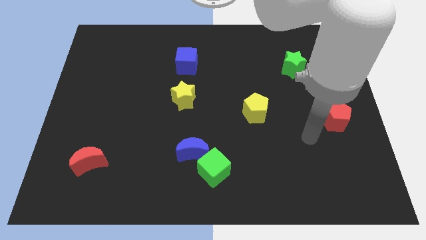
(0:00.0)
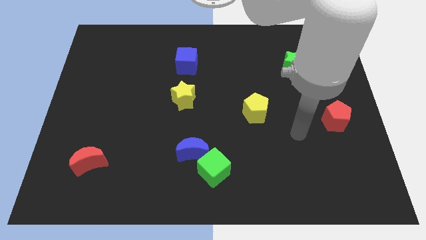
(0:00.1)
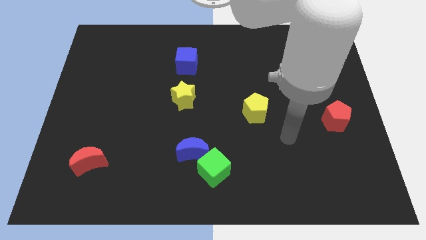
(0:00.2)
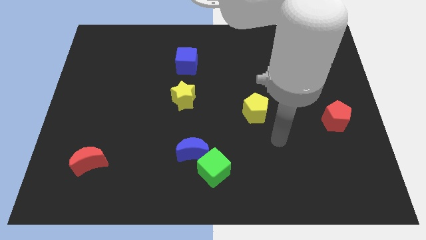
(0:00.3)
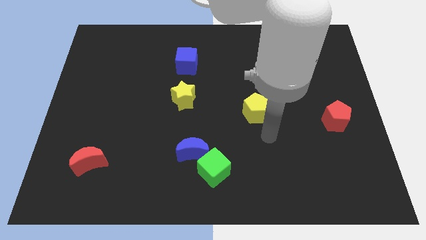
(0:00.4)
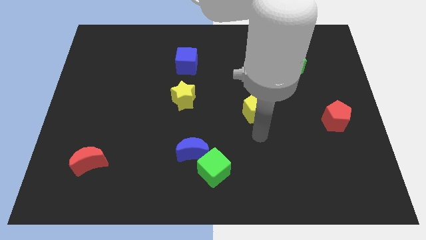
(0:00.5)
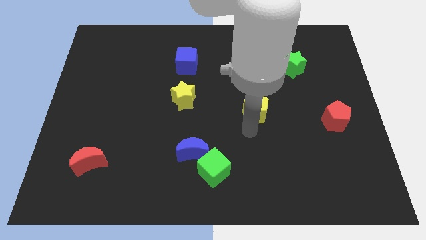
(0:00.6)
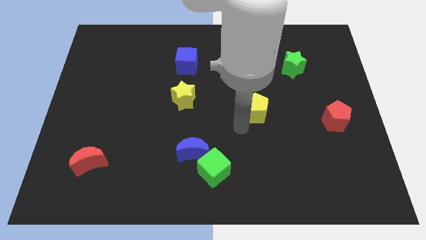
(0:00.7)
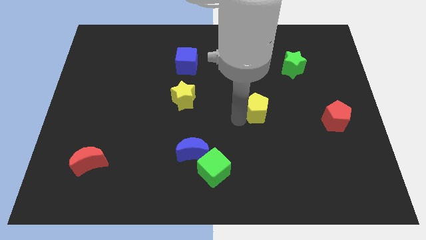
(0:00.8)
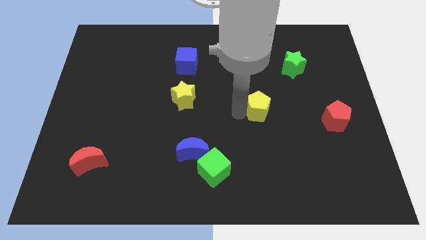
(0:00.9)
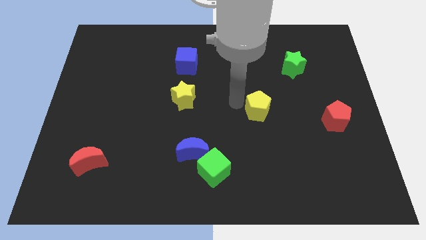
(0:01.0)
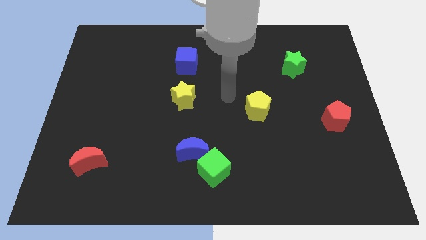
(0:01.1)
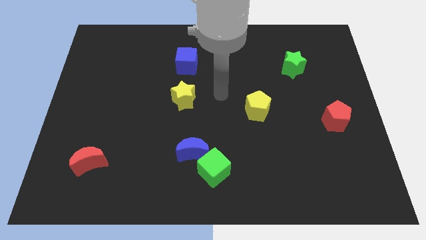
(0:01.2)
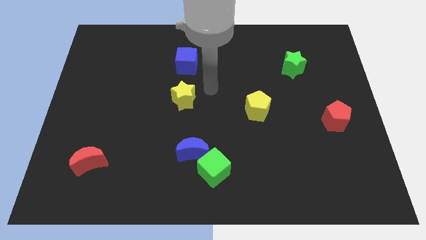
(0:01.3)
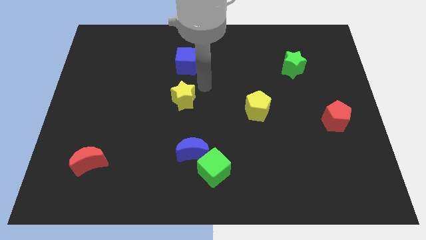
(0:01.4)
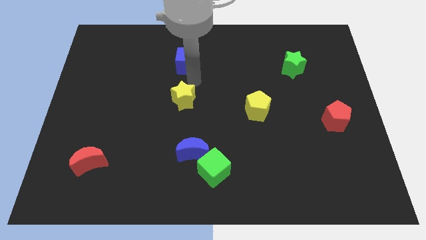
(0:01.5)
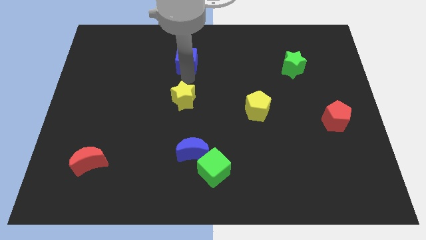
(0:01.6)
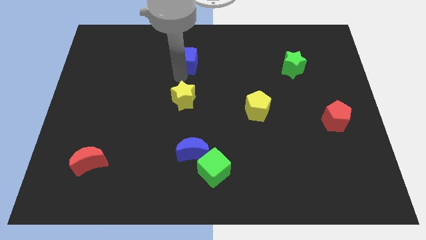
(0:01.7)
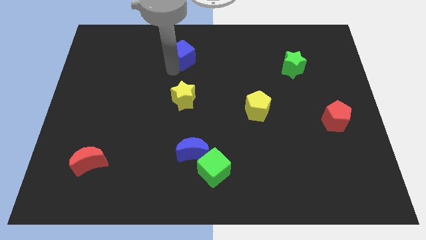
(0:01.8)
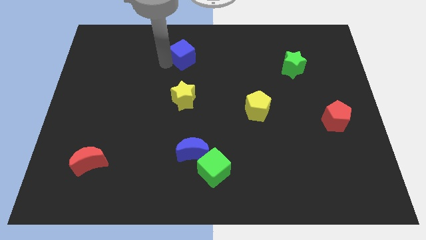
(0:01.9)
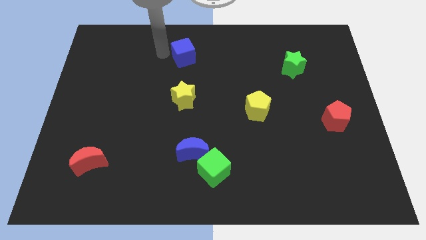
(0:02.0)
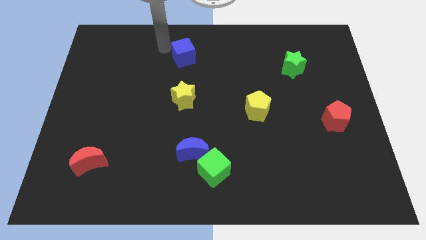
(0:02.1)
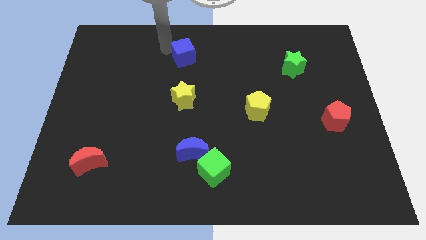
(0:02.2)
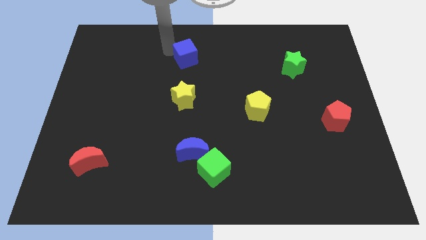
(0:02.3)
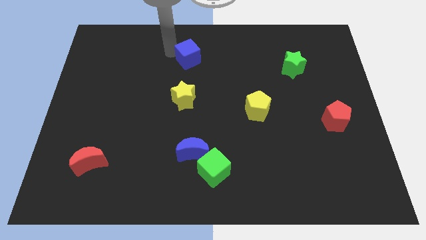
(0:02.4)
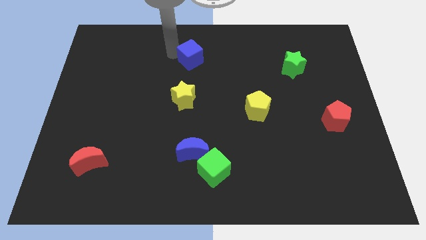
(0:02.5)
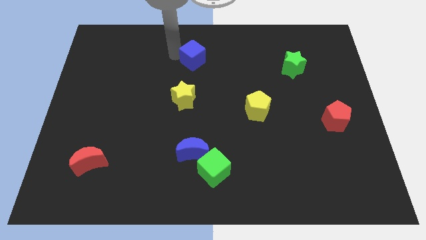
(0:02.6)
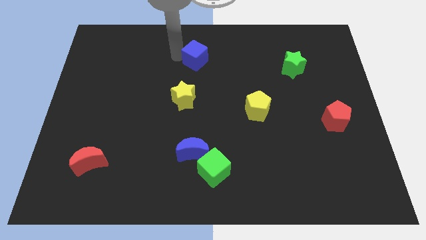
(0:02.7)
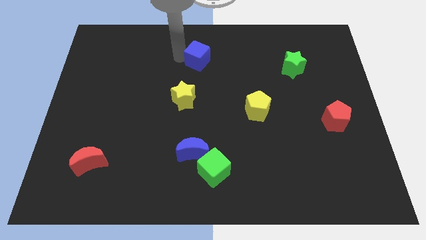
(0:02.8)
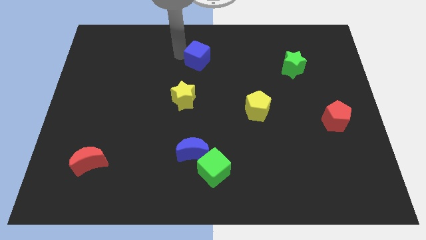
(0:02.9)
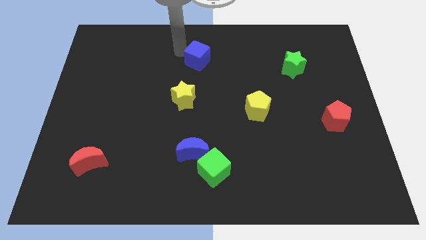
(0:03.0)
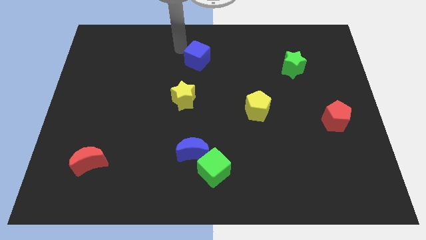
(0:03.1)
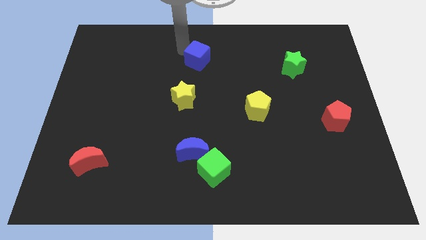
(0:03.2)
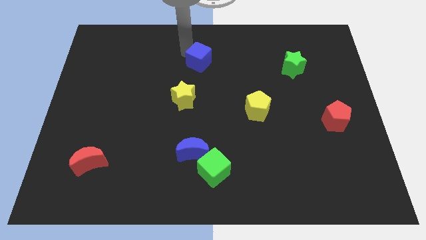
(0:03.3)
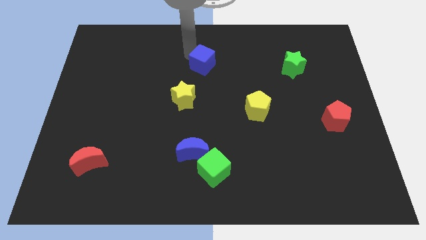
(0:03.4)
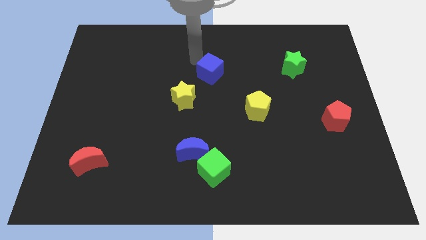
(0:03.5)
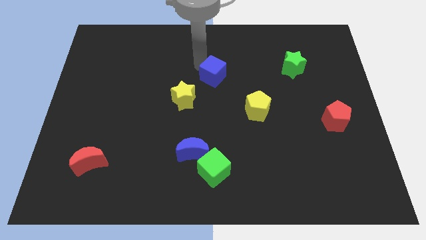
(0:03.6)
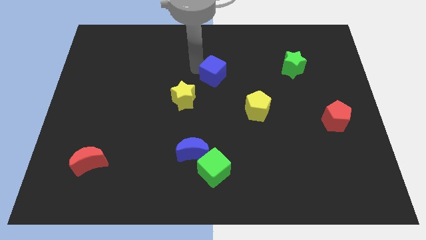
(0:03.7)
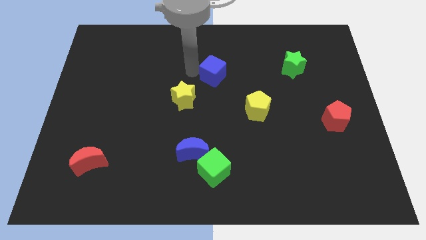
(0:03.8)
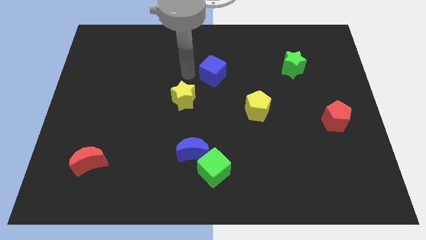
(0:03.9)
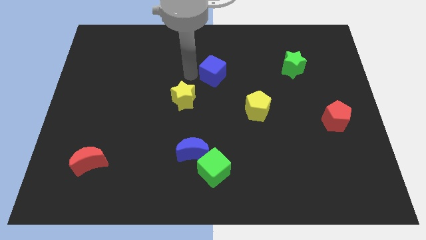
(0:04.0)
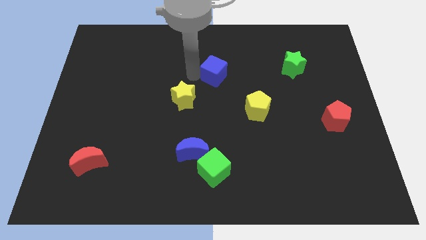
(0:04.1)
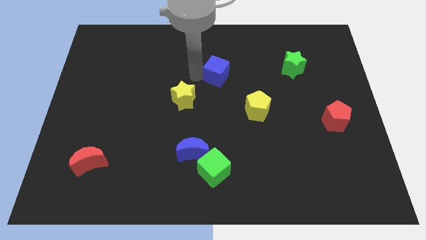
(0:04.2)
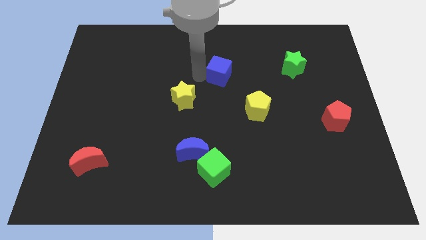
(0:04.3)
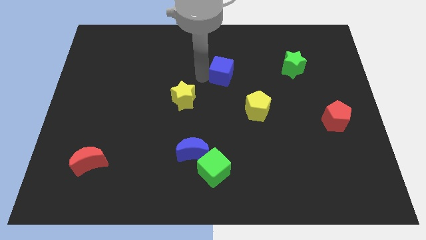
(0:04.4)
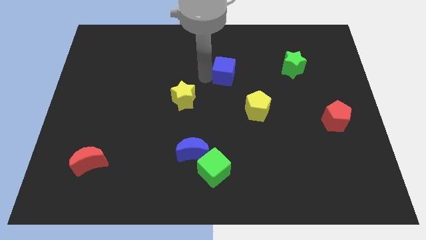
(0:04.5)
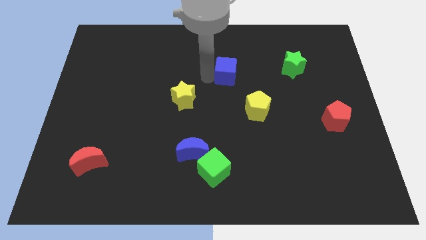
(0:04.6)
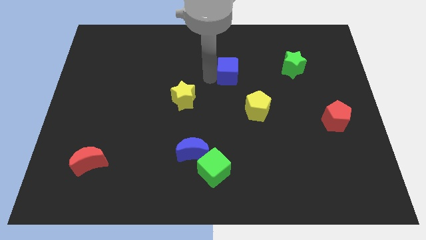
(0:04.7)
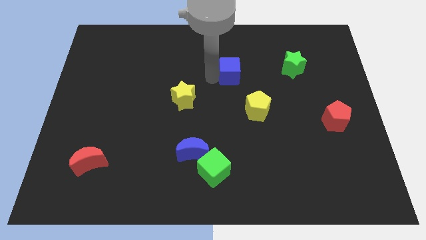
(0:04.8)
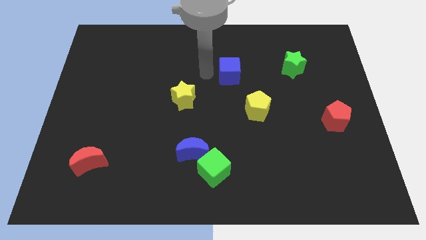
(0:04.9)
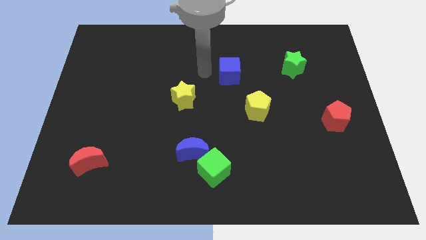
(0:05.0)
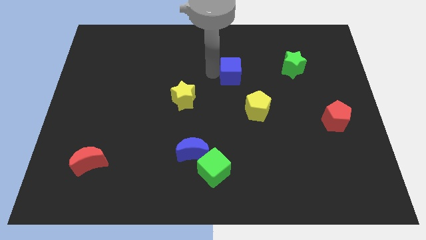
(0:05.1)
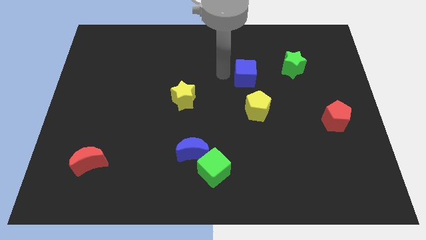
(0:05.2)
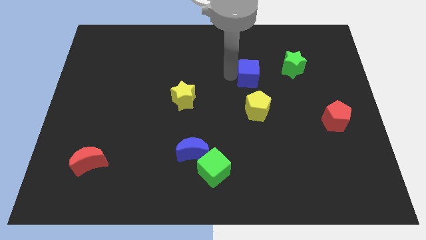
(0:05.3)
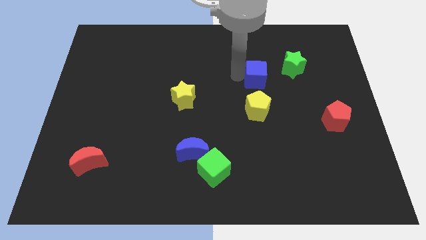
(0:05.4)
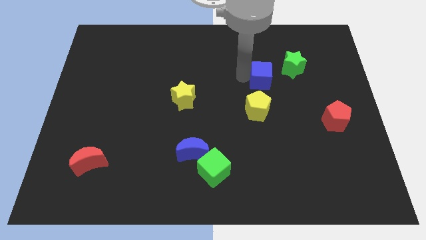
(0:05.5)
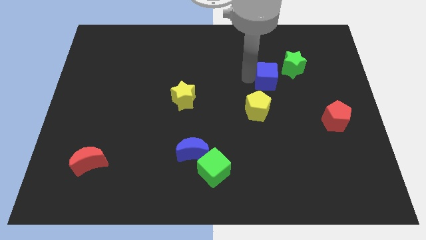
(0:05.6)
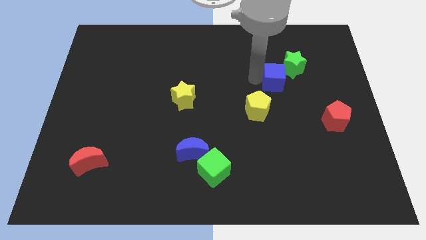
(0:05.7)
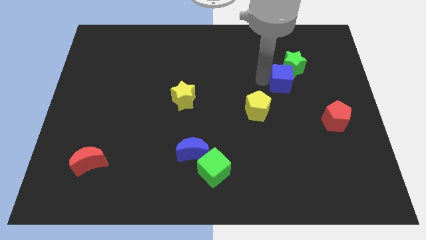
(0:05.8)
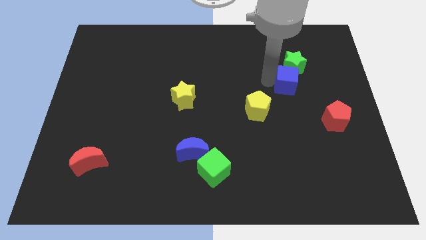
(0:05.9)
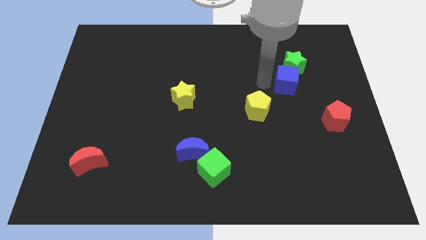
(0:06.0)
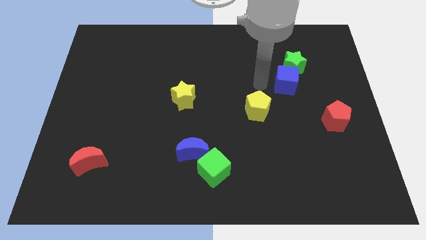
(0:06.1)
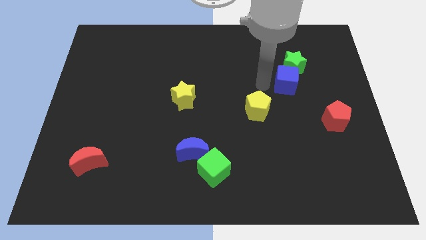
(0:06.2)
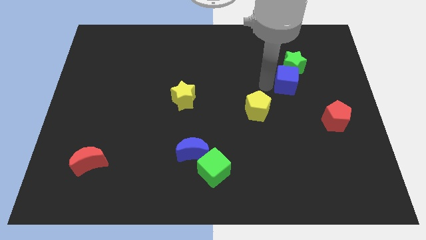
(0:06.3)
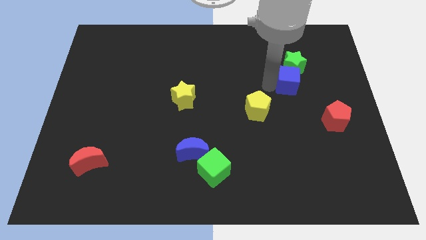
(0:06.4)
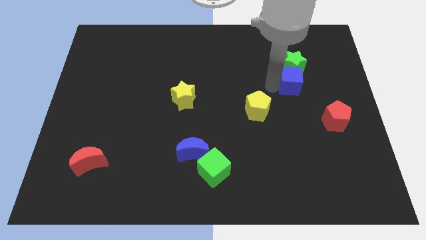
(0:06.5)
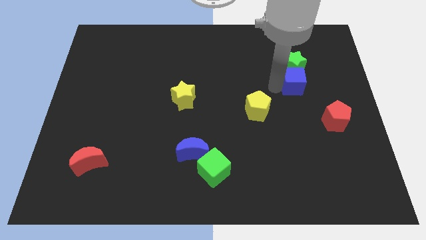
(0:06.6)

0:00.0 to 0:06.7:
slide the blue cube to the bottom right of the green star

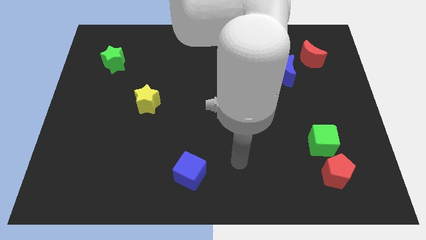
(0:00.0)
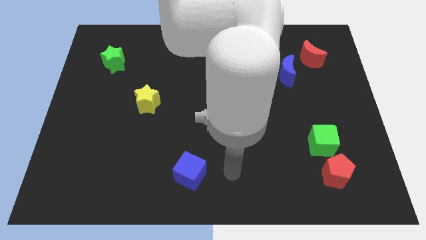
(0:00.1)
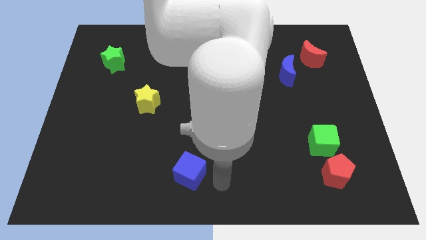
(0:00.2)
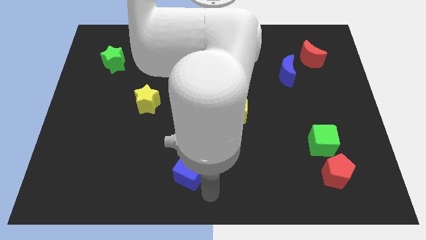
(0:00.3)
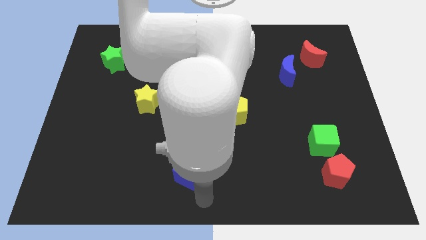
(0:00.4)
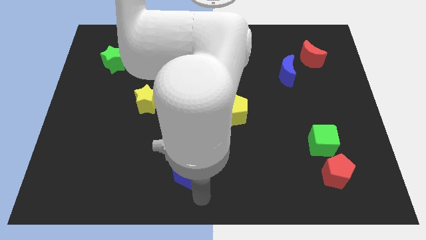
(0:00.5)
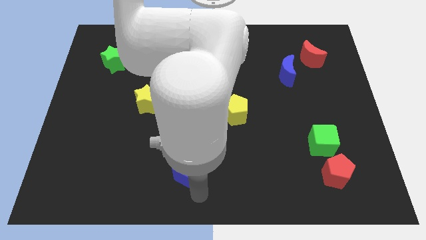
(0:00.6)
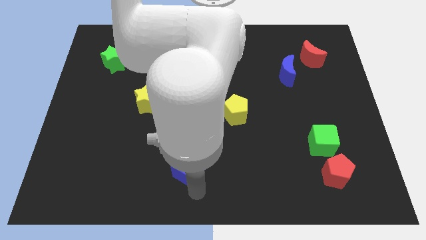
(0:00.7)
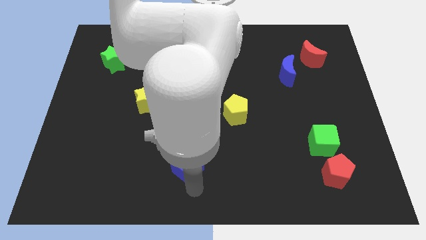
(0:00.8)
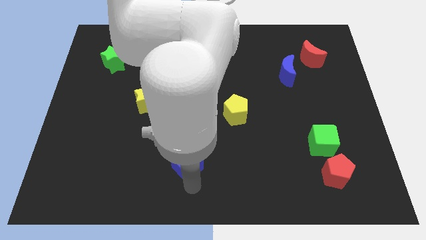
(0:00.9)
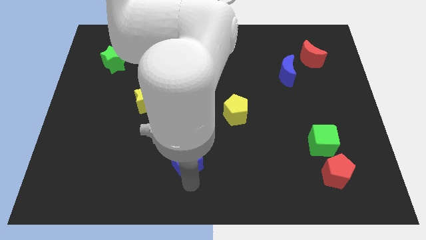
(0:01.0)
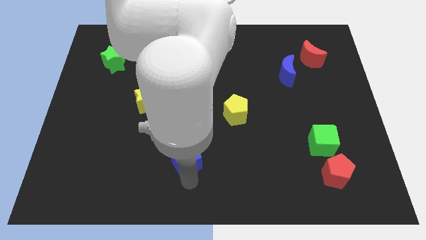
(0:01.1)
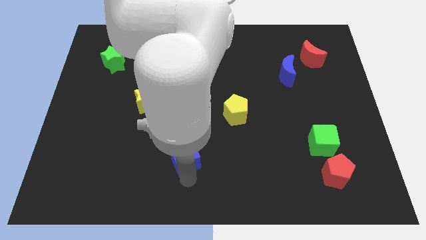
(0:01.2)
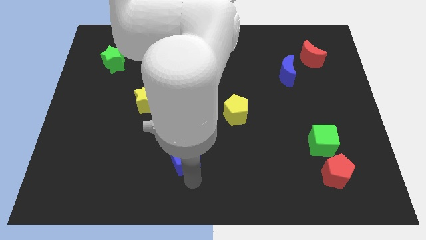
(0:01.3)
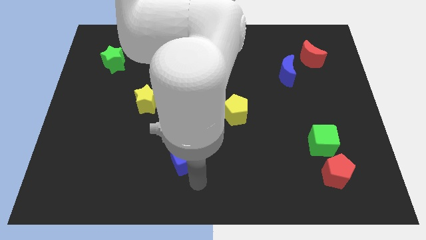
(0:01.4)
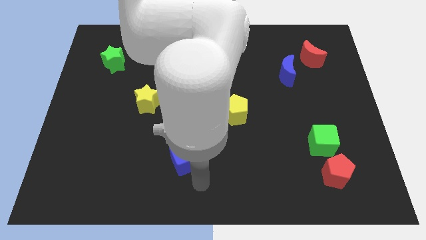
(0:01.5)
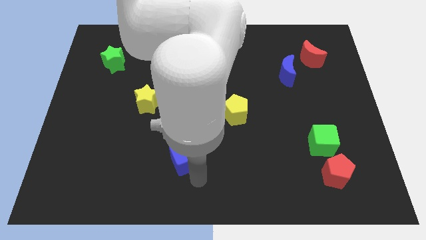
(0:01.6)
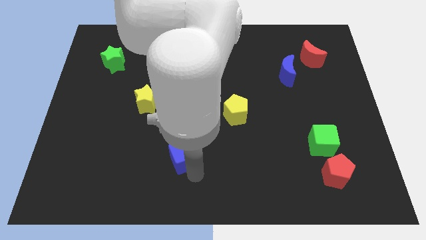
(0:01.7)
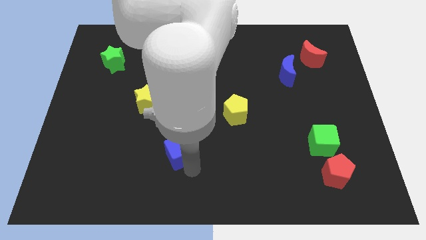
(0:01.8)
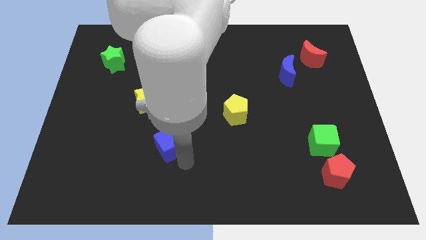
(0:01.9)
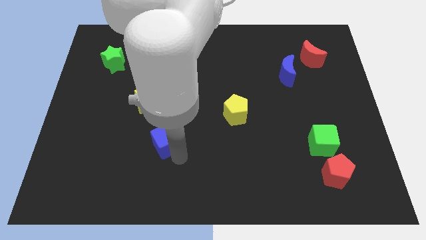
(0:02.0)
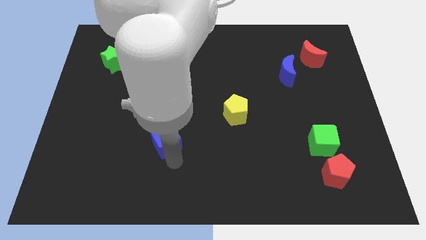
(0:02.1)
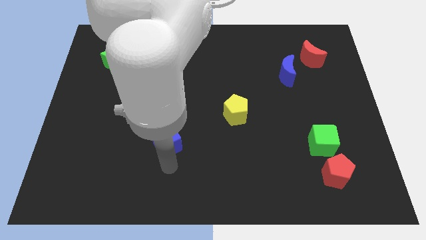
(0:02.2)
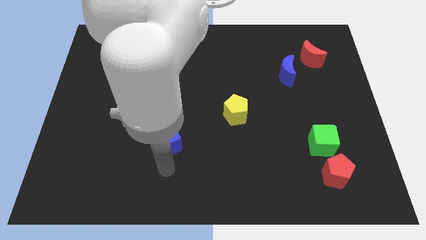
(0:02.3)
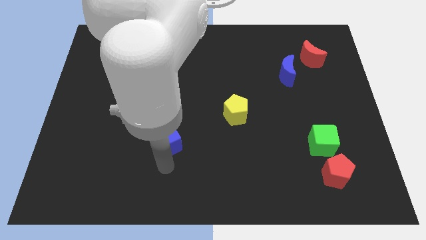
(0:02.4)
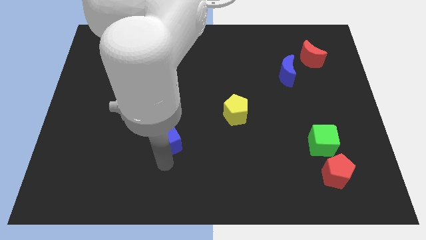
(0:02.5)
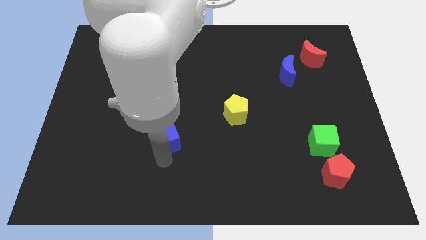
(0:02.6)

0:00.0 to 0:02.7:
slide the blue cube to the bottom right of the yellow star
